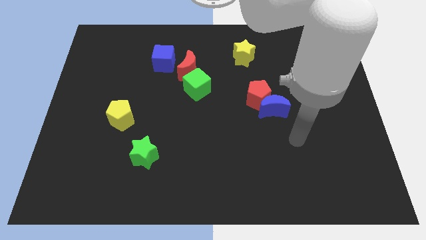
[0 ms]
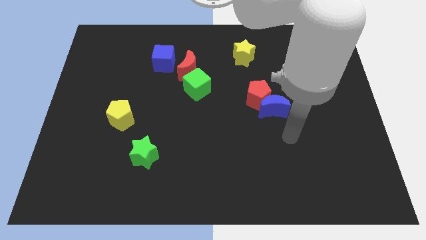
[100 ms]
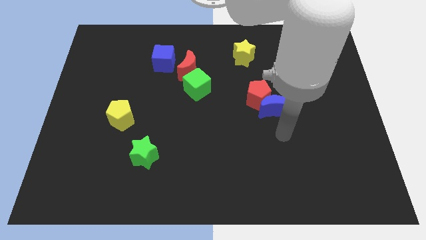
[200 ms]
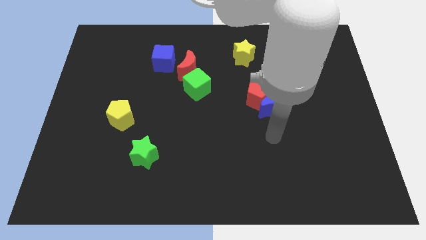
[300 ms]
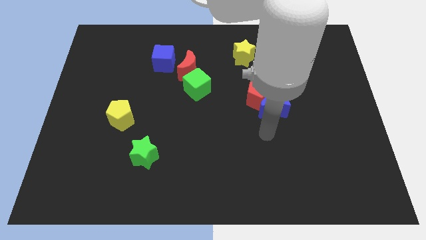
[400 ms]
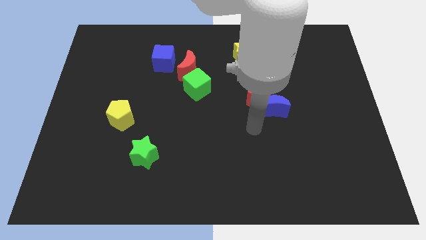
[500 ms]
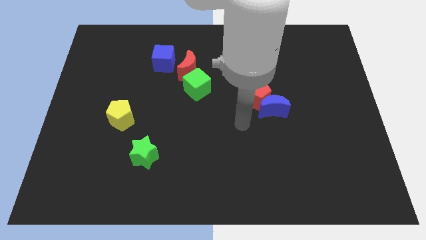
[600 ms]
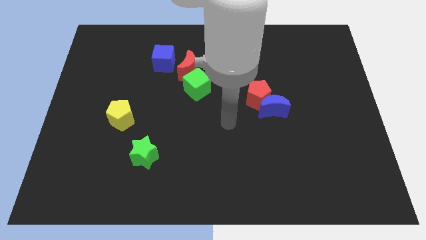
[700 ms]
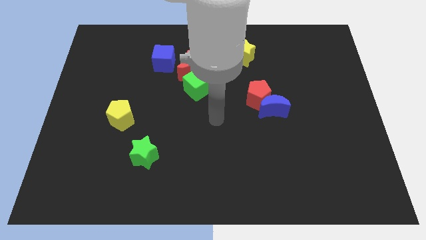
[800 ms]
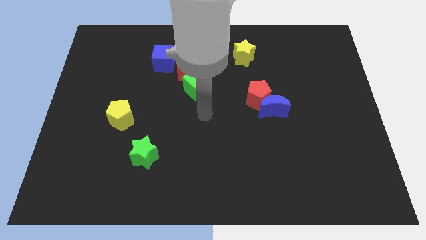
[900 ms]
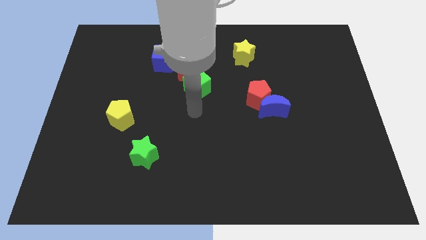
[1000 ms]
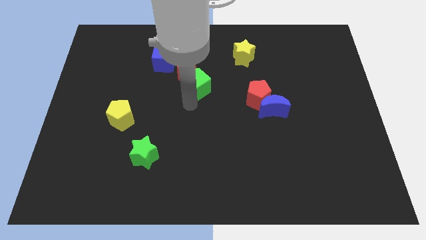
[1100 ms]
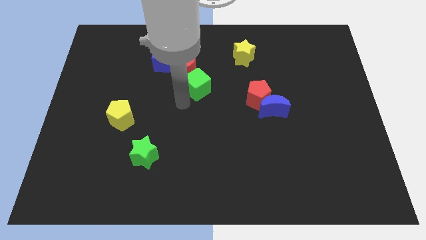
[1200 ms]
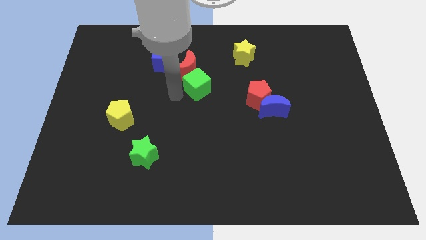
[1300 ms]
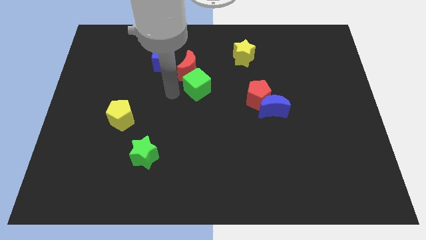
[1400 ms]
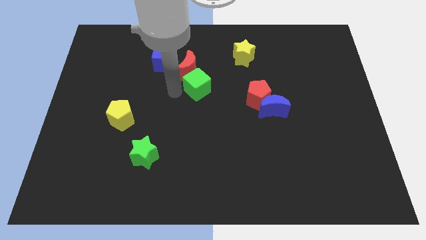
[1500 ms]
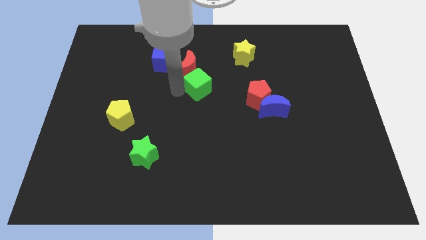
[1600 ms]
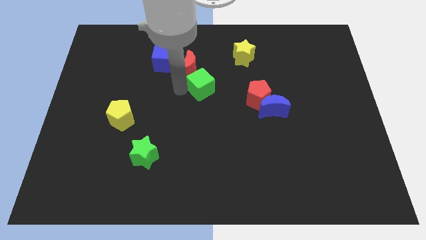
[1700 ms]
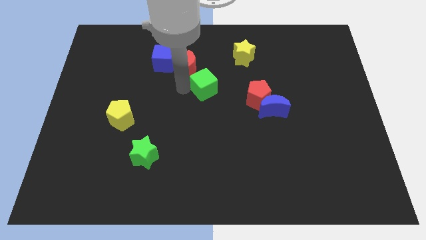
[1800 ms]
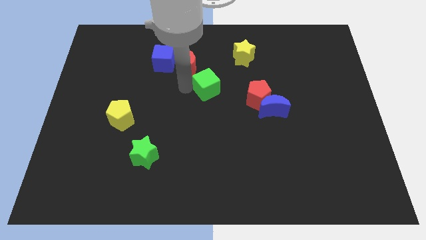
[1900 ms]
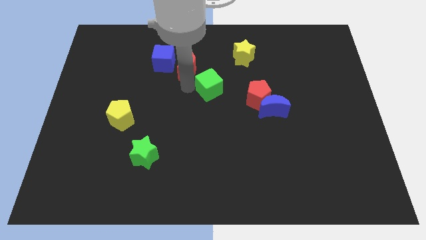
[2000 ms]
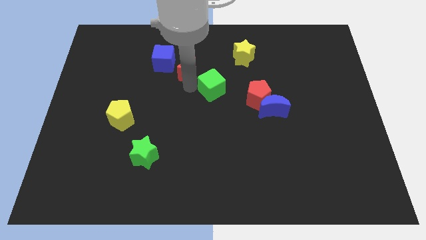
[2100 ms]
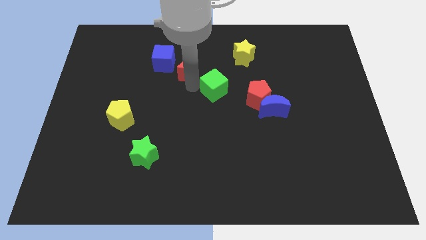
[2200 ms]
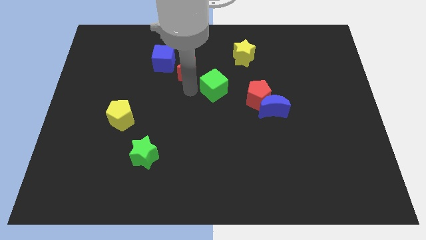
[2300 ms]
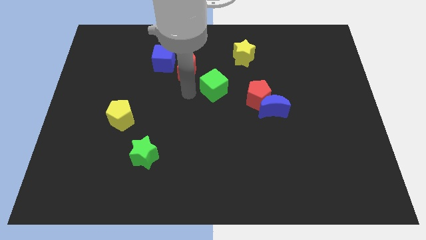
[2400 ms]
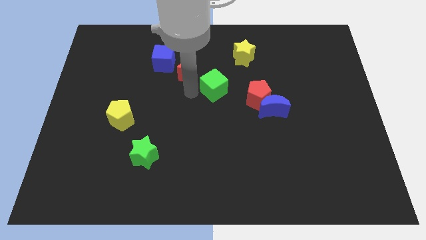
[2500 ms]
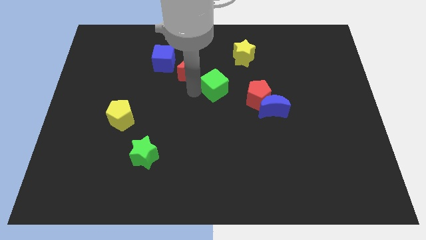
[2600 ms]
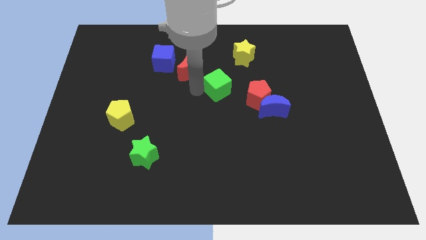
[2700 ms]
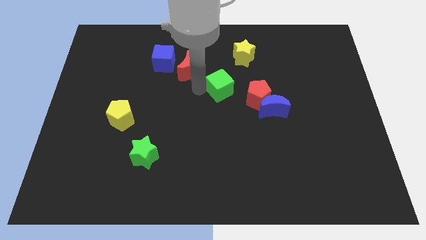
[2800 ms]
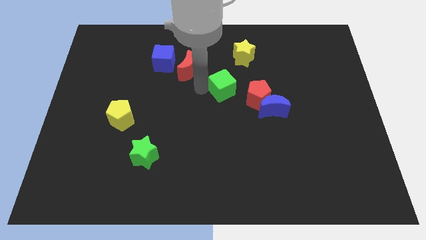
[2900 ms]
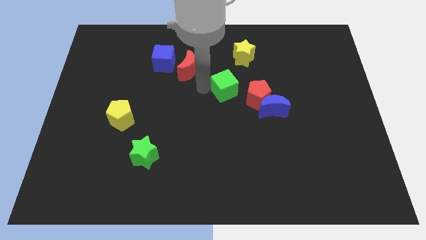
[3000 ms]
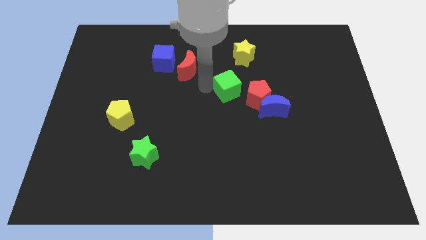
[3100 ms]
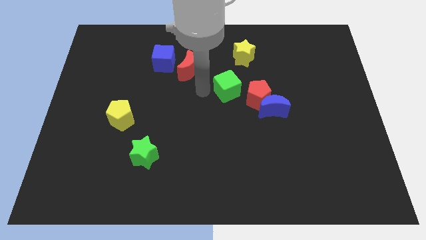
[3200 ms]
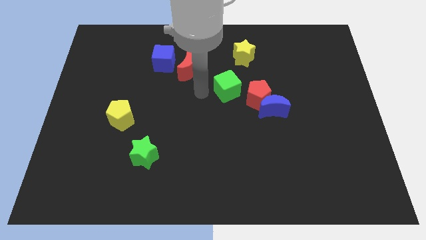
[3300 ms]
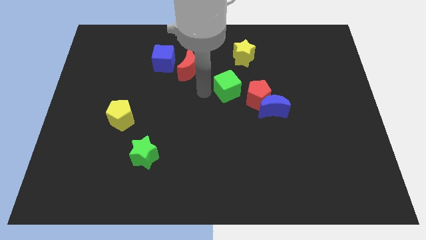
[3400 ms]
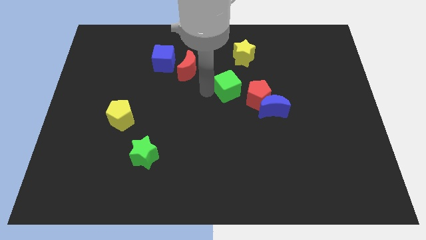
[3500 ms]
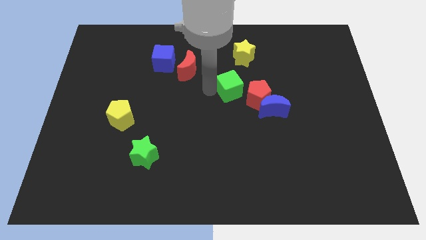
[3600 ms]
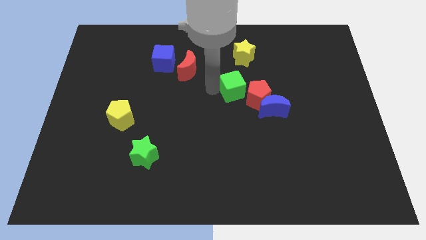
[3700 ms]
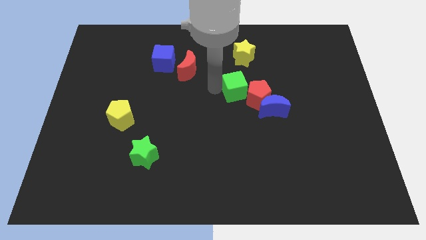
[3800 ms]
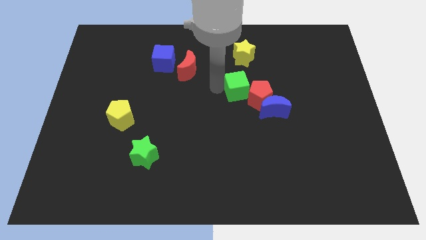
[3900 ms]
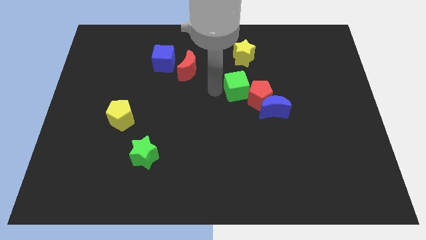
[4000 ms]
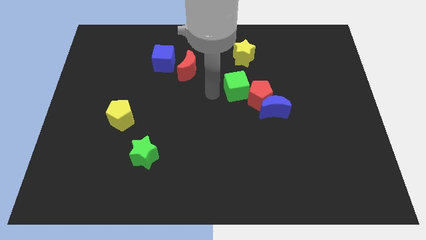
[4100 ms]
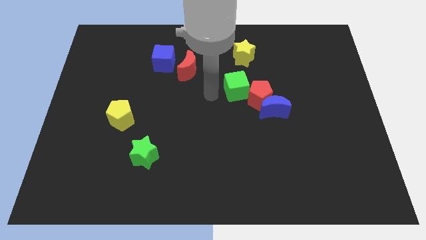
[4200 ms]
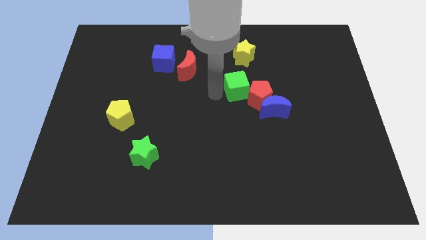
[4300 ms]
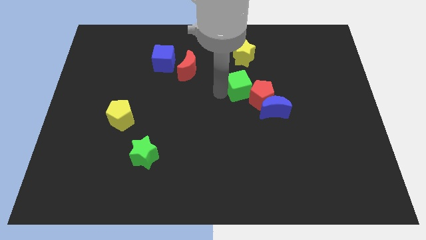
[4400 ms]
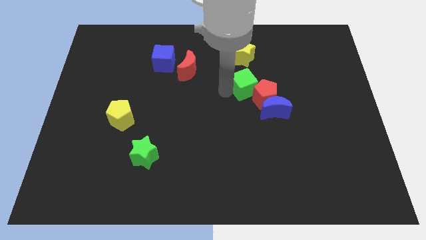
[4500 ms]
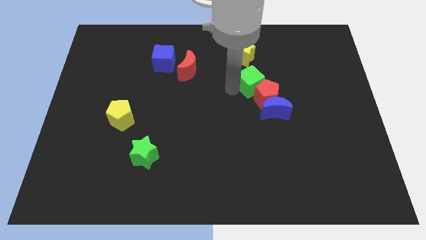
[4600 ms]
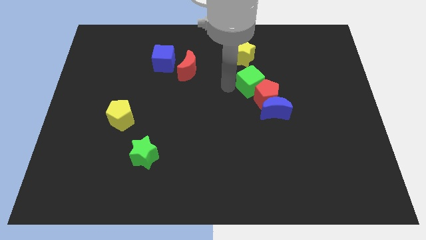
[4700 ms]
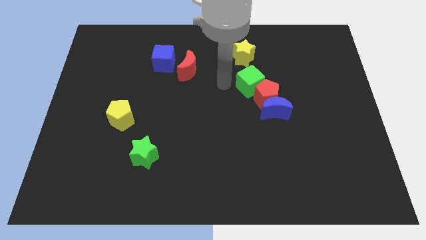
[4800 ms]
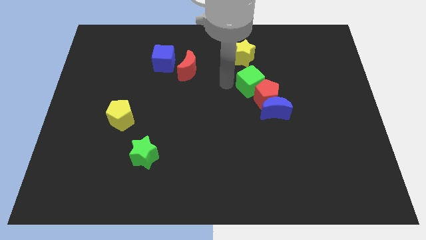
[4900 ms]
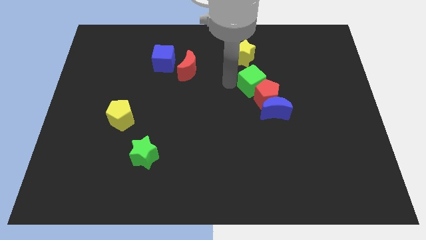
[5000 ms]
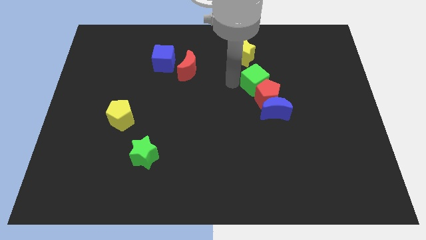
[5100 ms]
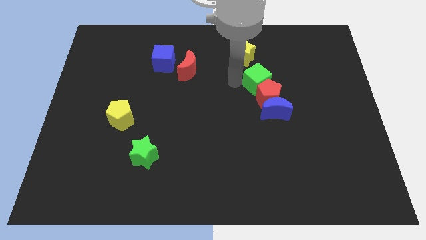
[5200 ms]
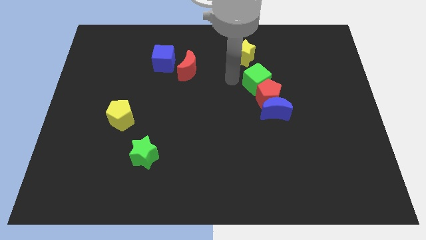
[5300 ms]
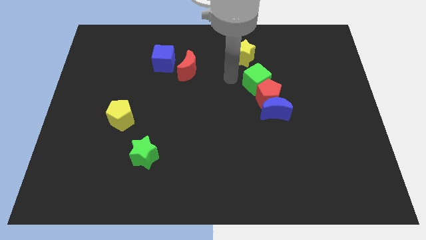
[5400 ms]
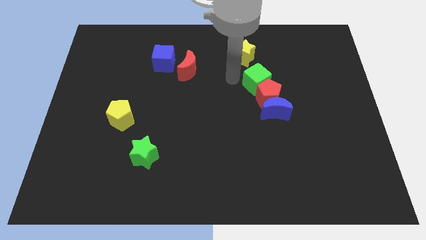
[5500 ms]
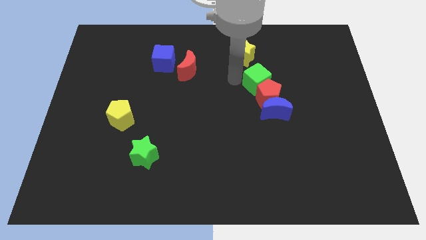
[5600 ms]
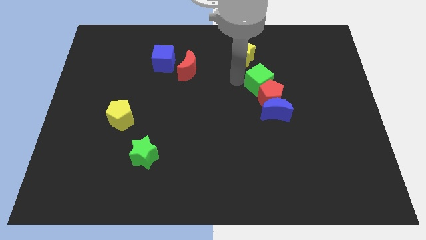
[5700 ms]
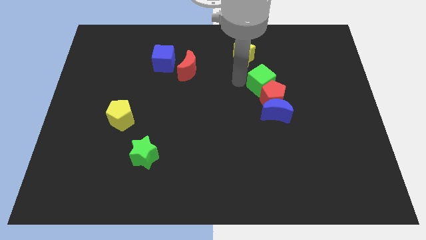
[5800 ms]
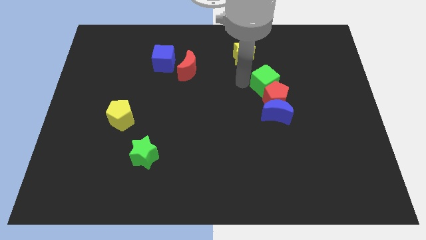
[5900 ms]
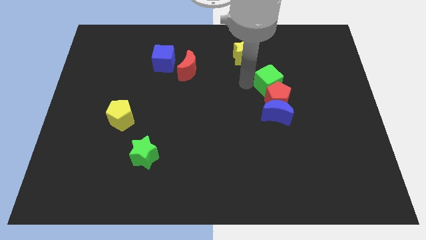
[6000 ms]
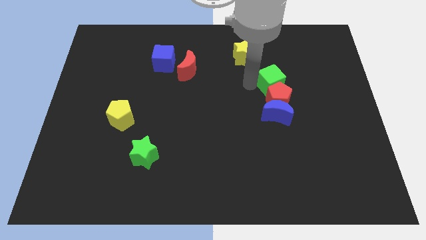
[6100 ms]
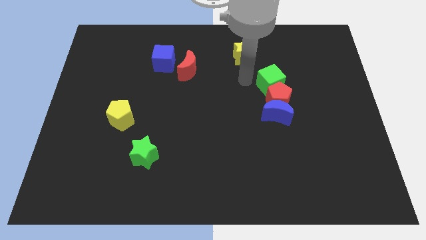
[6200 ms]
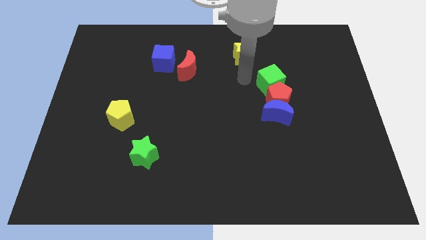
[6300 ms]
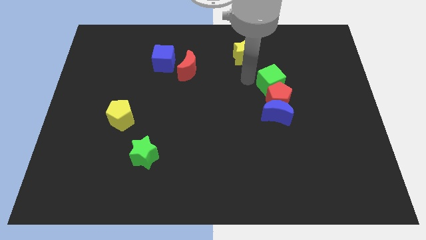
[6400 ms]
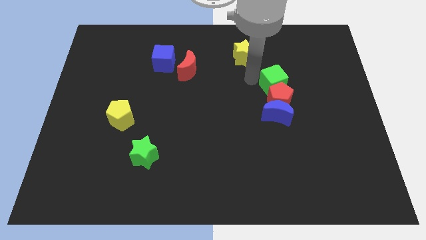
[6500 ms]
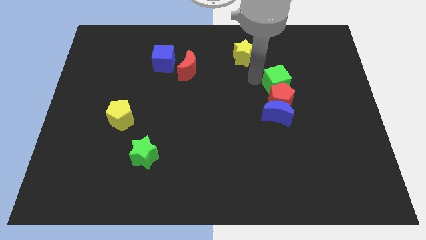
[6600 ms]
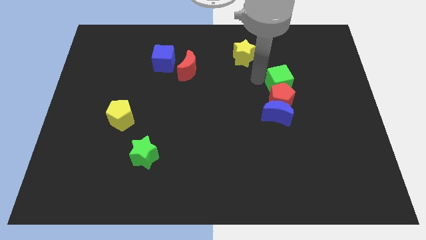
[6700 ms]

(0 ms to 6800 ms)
push the green cube right

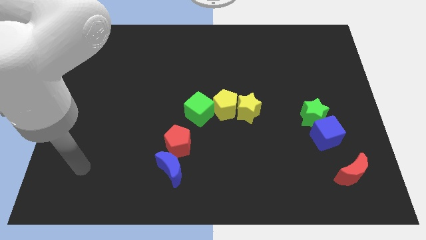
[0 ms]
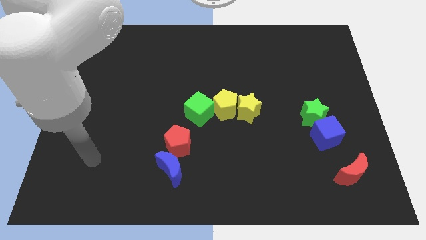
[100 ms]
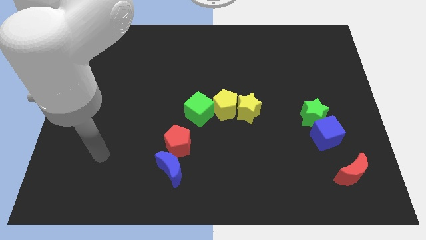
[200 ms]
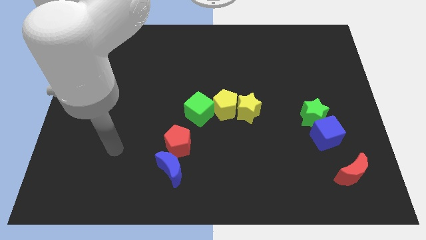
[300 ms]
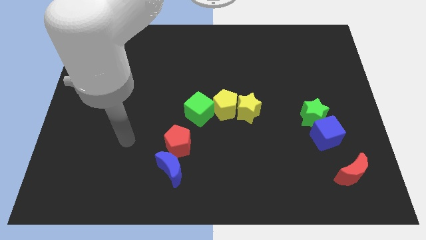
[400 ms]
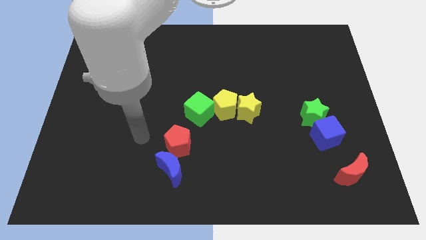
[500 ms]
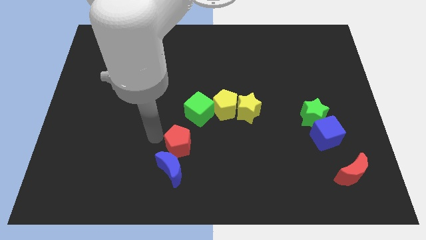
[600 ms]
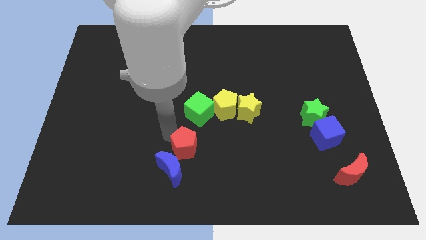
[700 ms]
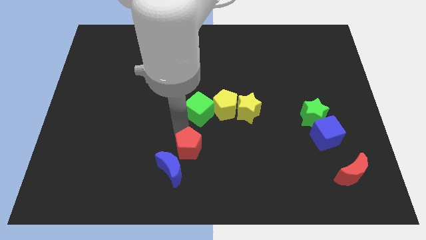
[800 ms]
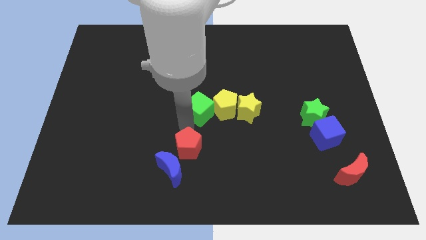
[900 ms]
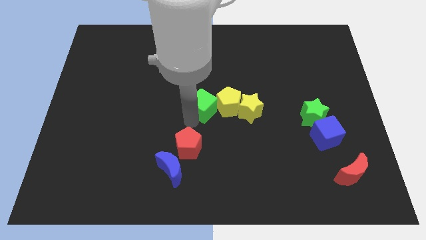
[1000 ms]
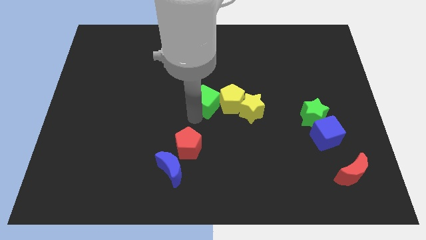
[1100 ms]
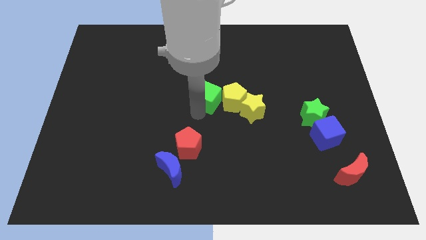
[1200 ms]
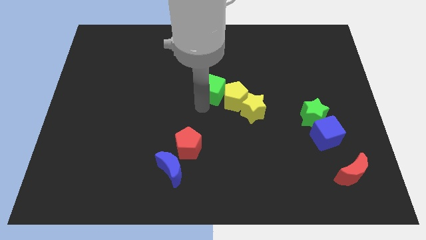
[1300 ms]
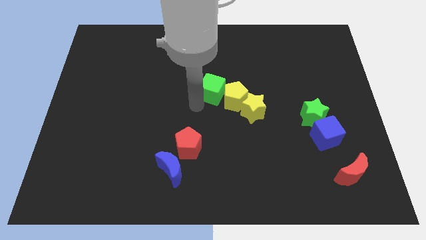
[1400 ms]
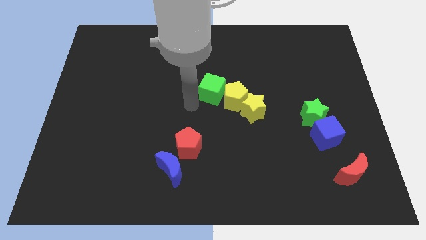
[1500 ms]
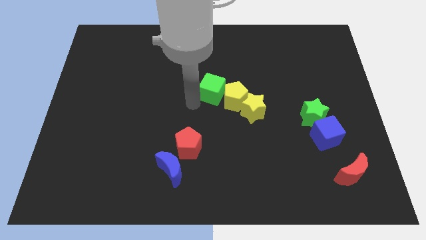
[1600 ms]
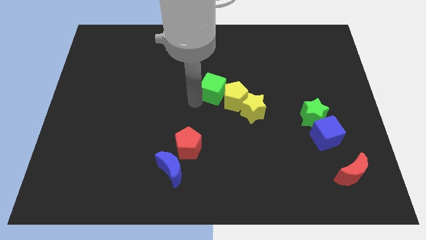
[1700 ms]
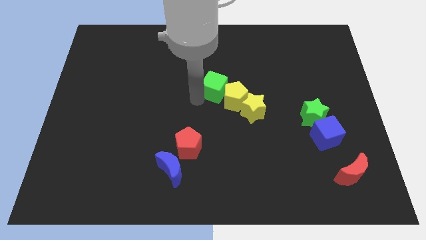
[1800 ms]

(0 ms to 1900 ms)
move the green cube upwards and to the right a little bit
